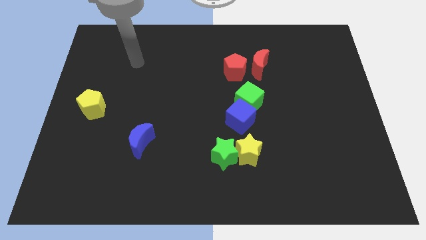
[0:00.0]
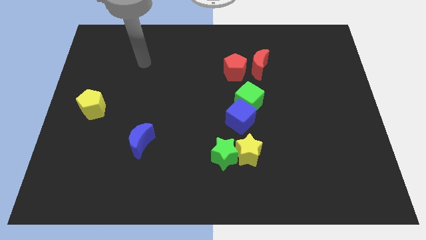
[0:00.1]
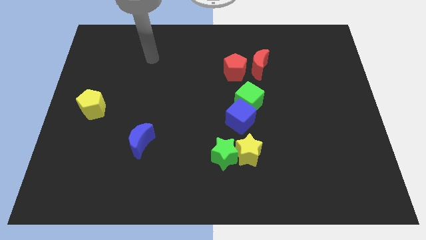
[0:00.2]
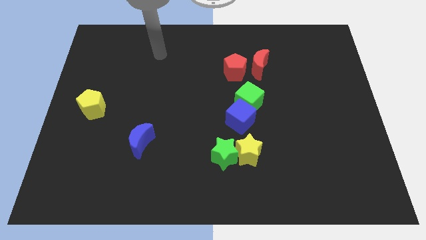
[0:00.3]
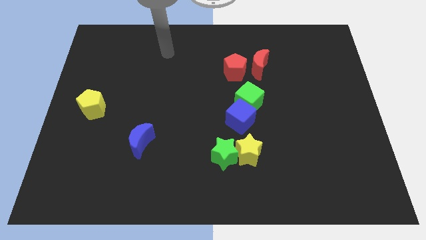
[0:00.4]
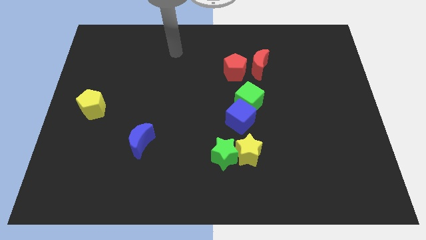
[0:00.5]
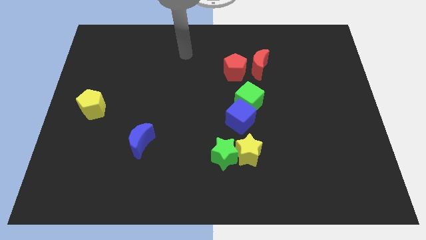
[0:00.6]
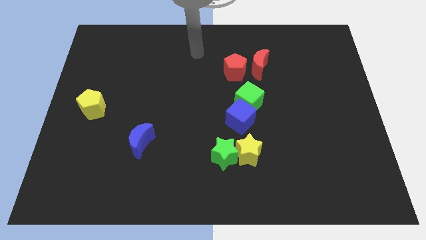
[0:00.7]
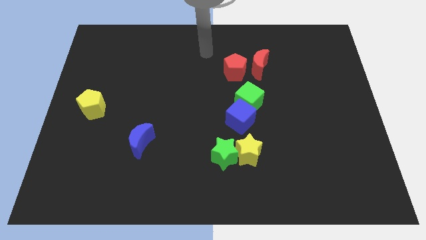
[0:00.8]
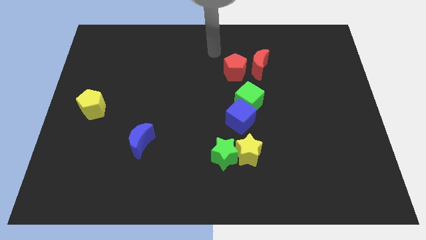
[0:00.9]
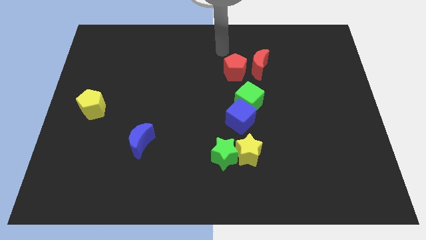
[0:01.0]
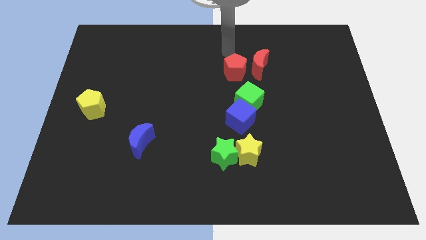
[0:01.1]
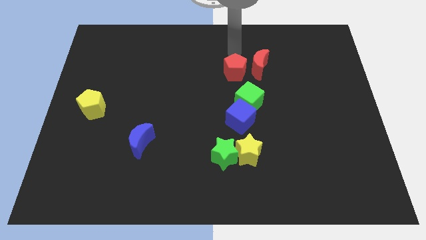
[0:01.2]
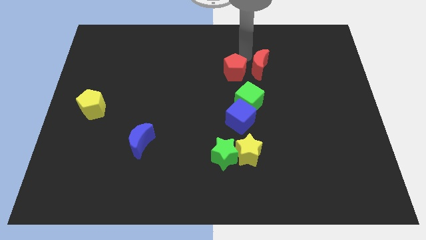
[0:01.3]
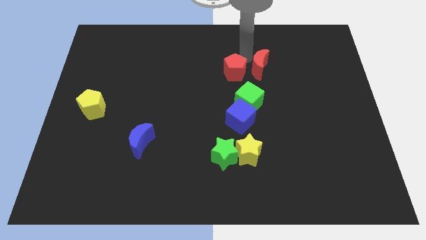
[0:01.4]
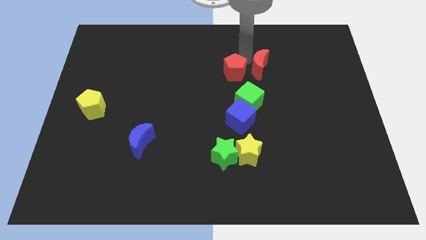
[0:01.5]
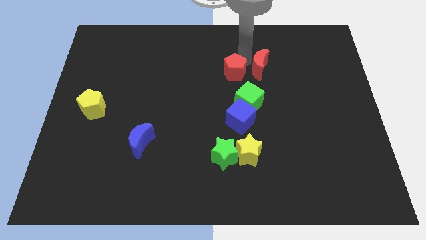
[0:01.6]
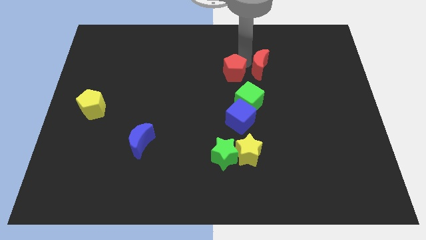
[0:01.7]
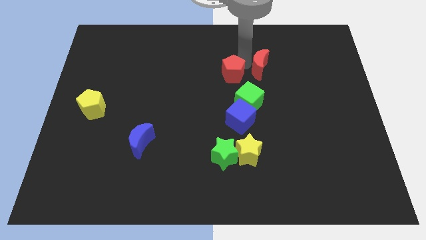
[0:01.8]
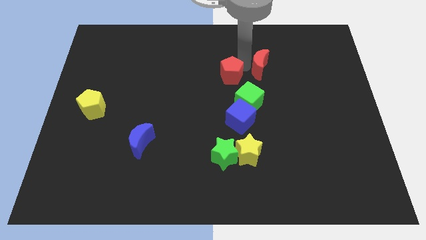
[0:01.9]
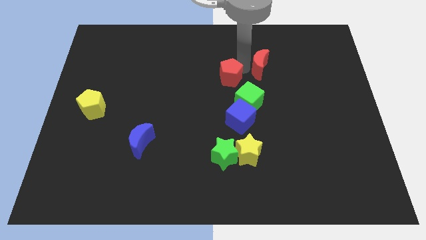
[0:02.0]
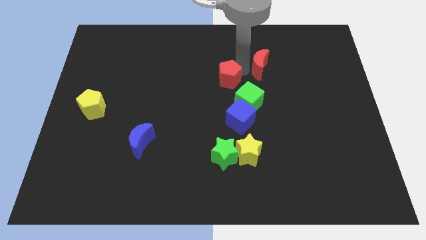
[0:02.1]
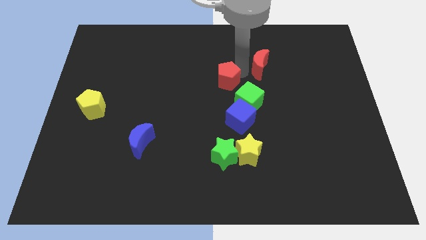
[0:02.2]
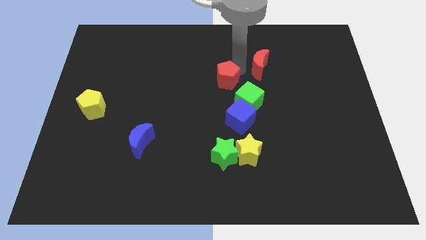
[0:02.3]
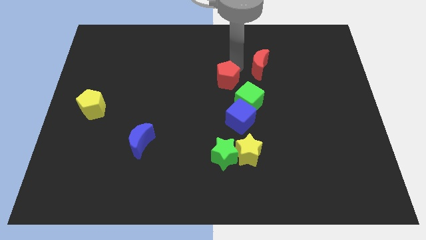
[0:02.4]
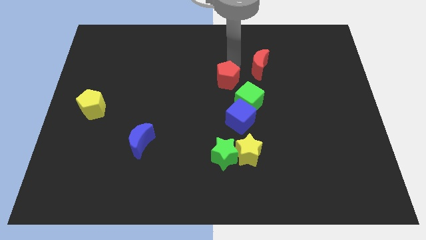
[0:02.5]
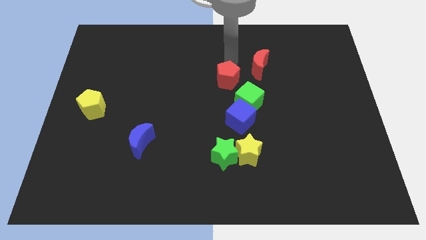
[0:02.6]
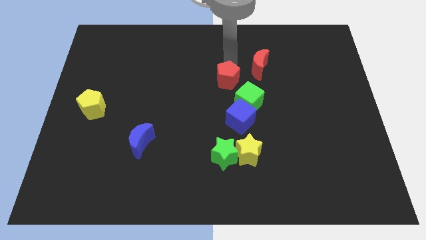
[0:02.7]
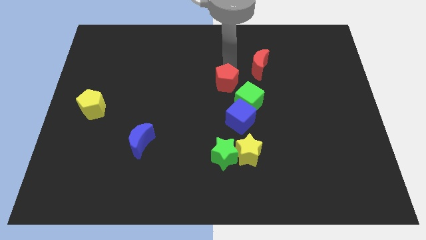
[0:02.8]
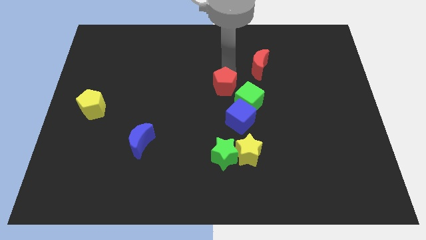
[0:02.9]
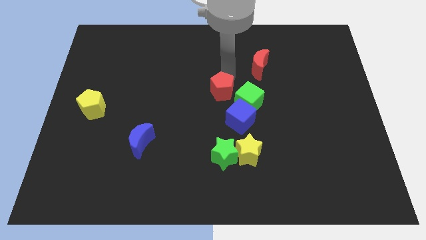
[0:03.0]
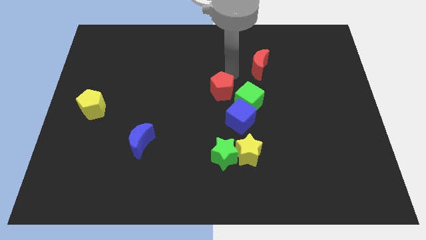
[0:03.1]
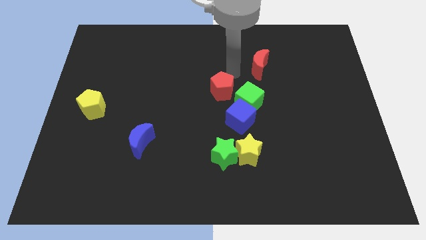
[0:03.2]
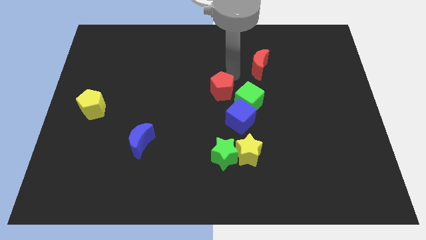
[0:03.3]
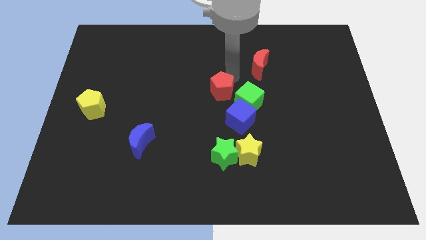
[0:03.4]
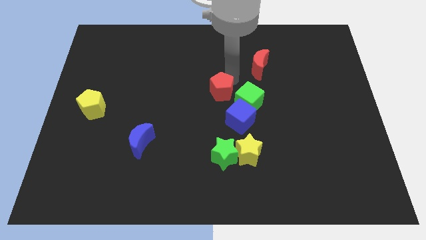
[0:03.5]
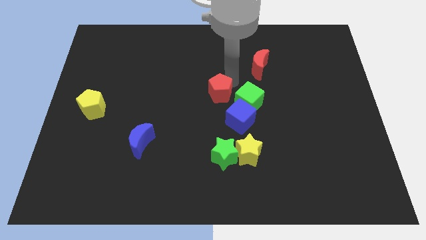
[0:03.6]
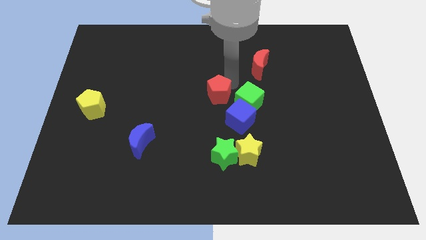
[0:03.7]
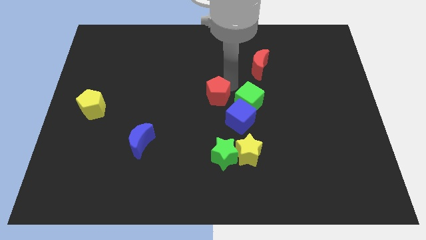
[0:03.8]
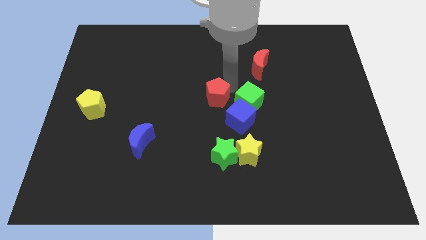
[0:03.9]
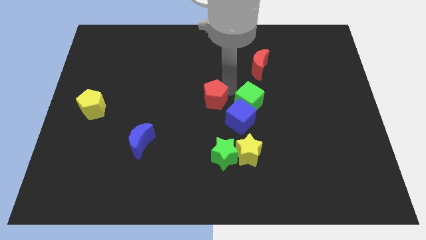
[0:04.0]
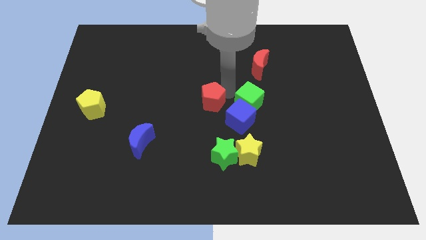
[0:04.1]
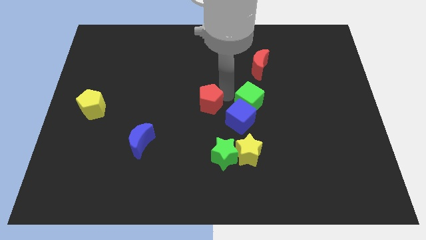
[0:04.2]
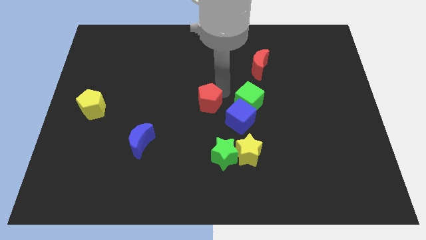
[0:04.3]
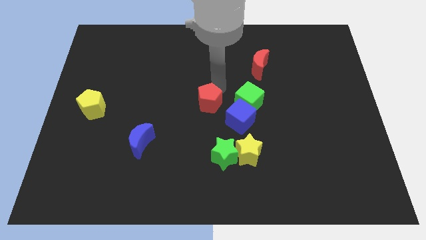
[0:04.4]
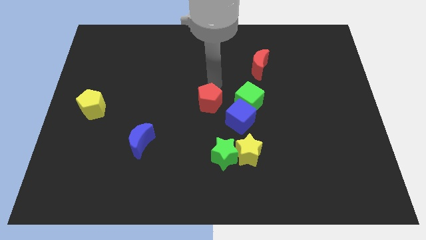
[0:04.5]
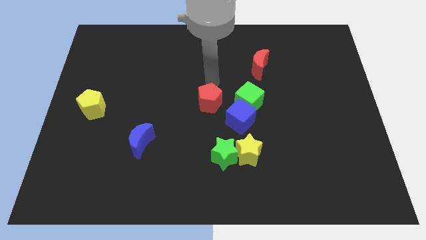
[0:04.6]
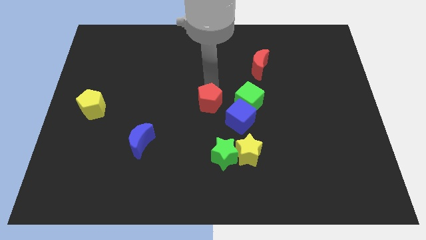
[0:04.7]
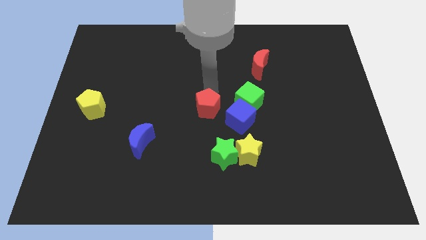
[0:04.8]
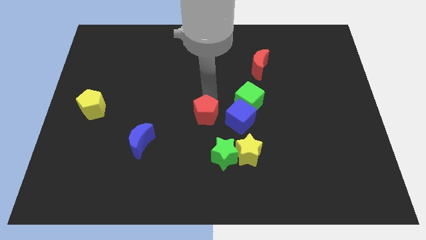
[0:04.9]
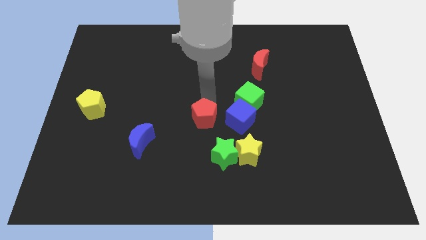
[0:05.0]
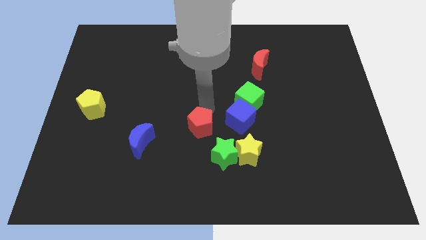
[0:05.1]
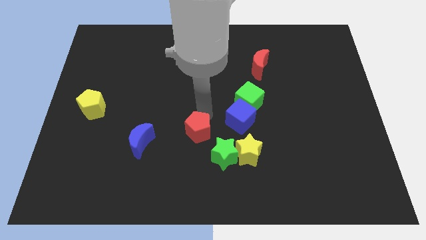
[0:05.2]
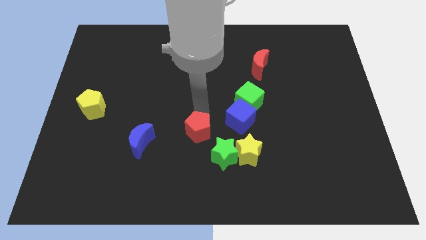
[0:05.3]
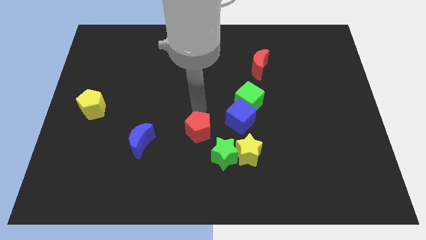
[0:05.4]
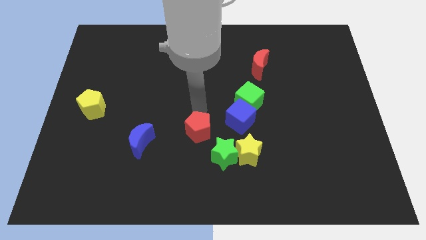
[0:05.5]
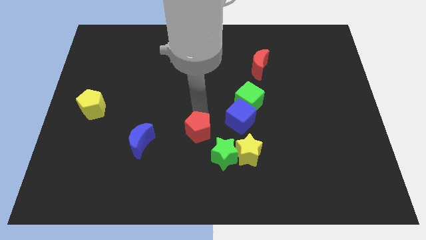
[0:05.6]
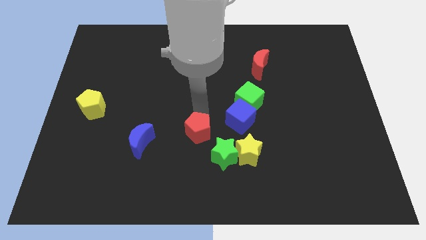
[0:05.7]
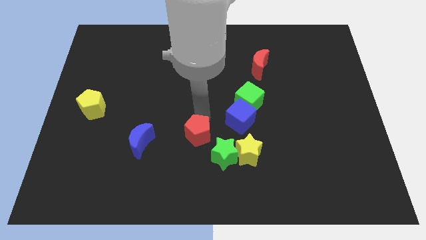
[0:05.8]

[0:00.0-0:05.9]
put the red pentagon just left of the yellow star

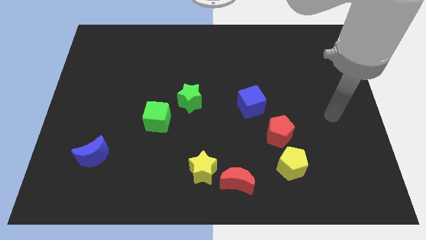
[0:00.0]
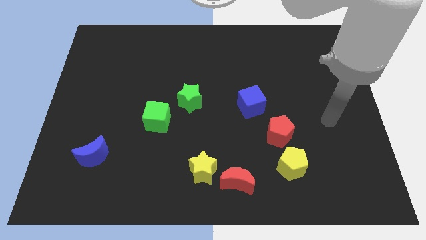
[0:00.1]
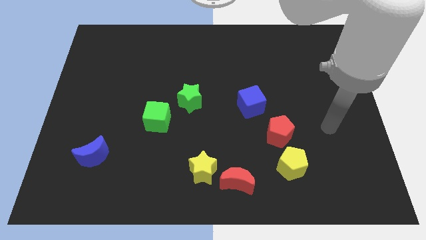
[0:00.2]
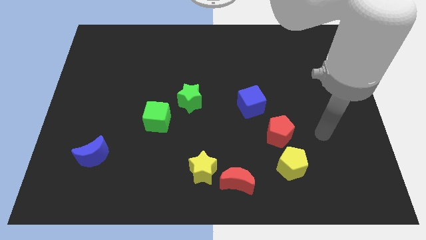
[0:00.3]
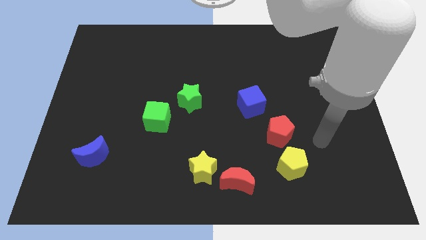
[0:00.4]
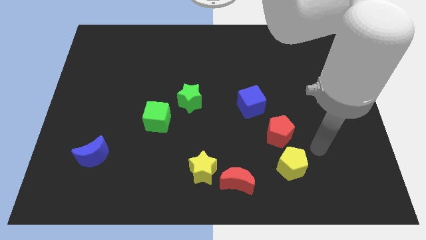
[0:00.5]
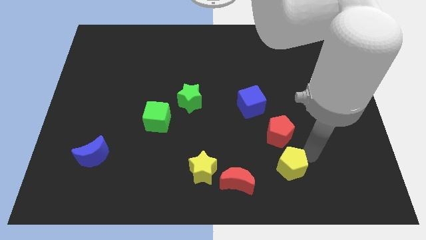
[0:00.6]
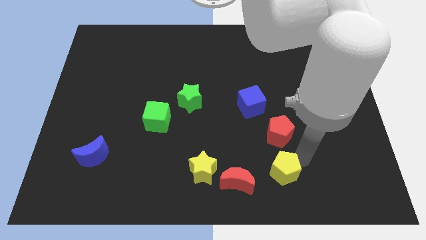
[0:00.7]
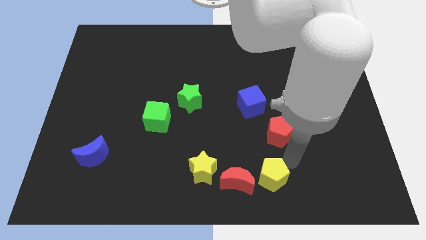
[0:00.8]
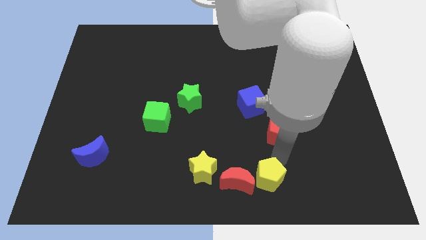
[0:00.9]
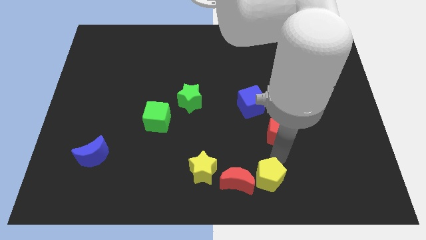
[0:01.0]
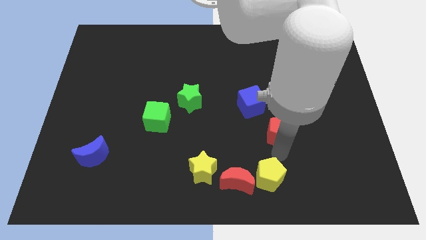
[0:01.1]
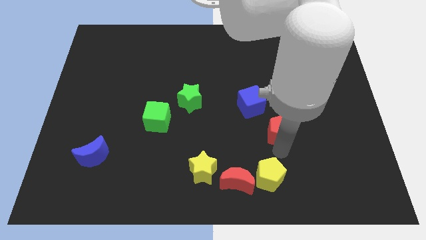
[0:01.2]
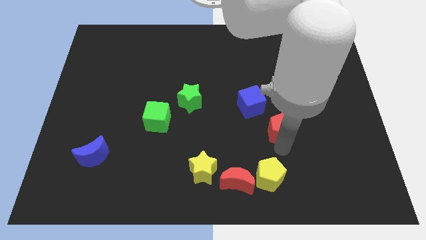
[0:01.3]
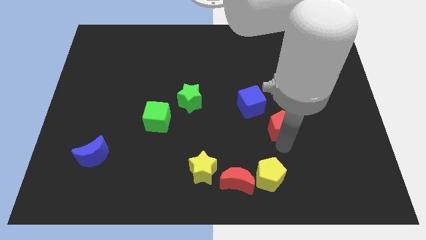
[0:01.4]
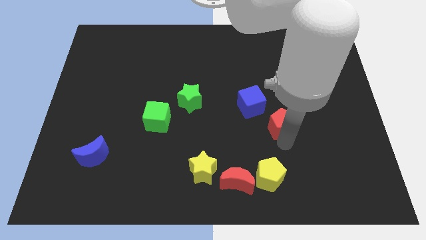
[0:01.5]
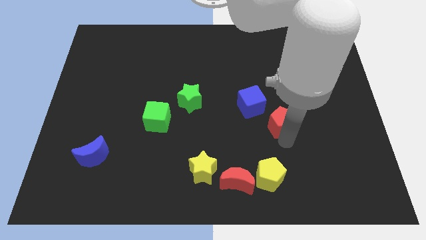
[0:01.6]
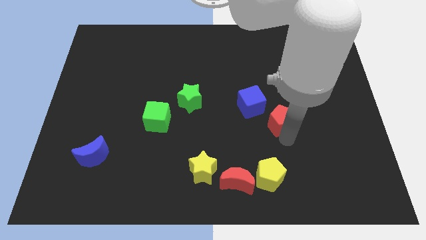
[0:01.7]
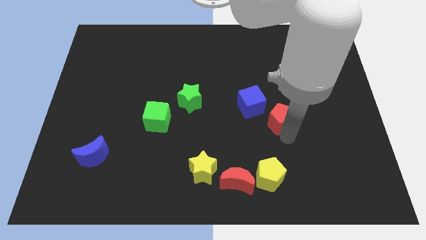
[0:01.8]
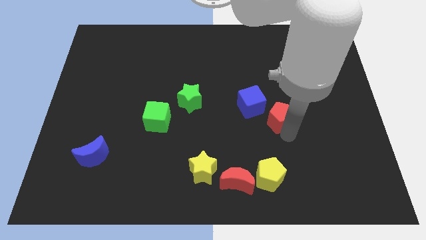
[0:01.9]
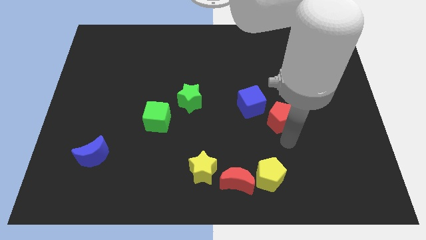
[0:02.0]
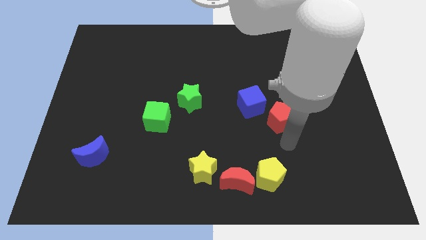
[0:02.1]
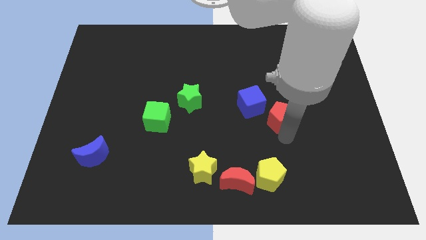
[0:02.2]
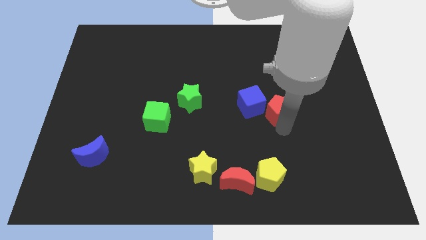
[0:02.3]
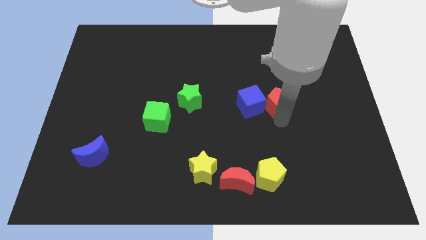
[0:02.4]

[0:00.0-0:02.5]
push the red pentagon diagonally up and to the right of the blue cube
